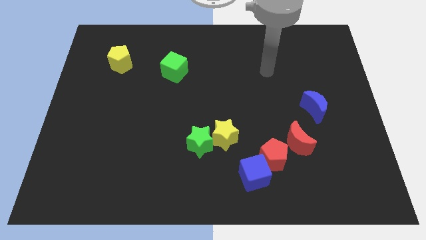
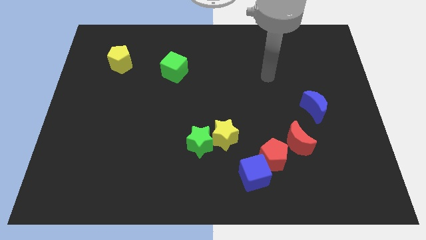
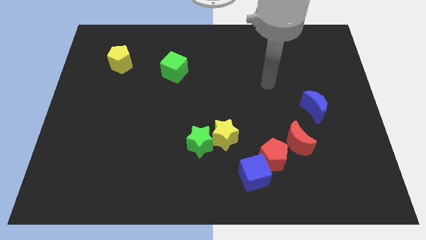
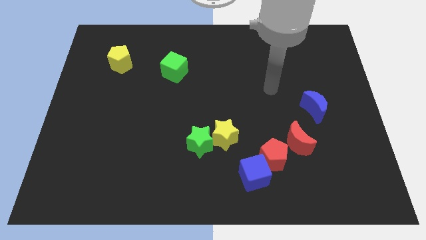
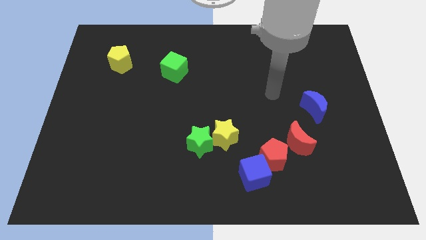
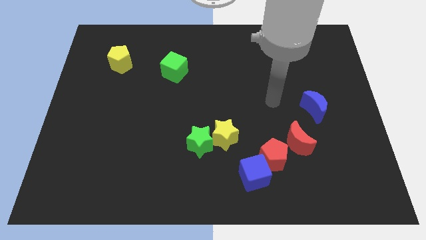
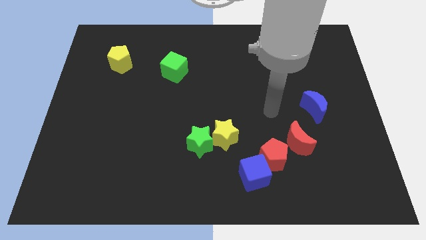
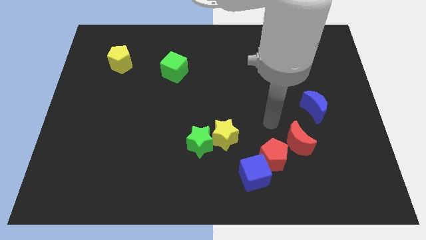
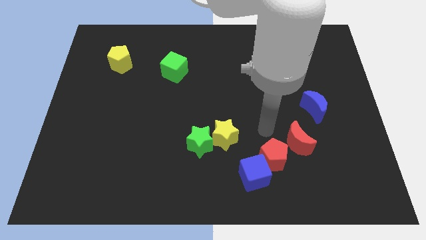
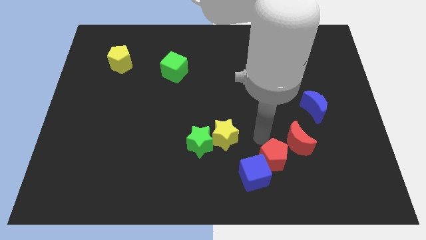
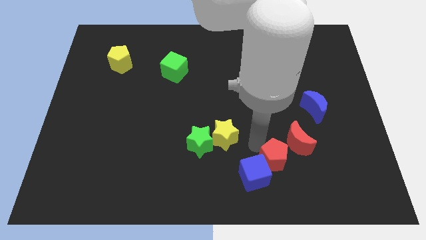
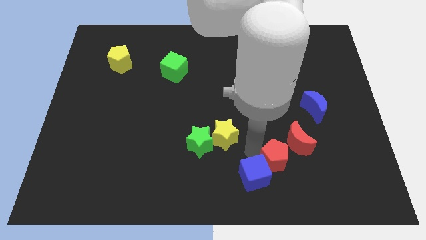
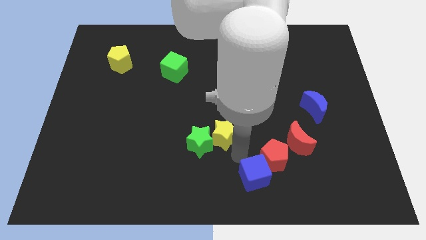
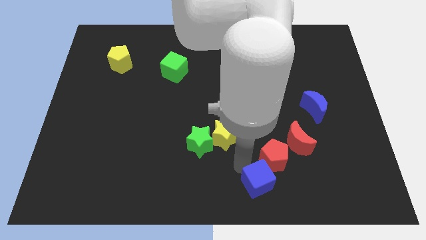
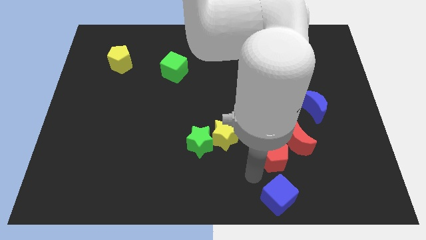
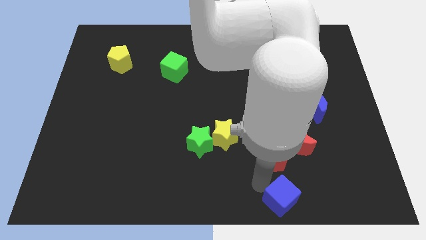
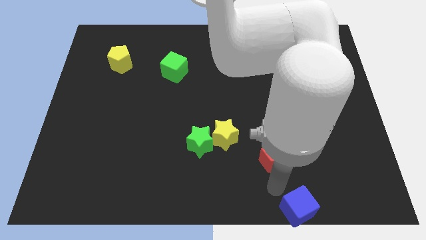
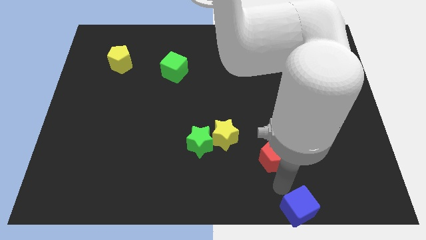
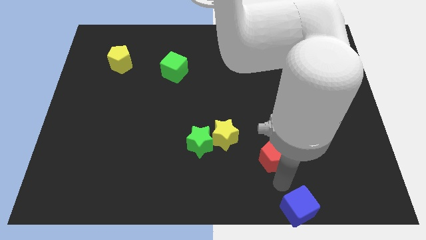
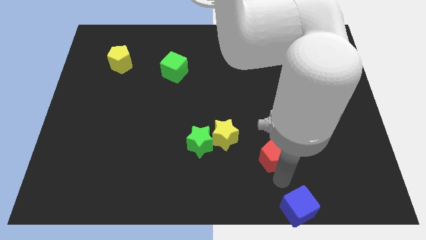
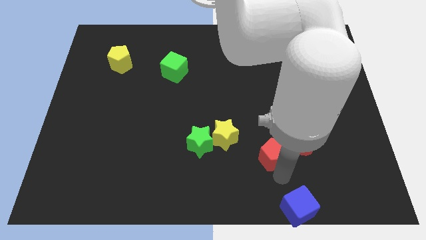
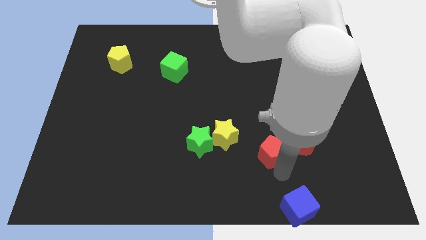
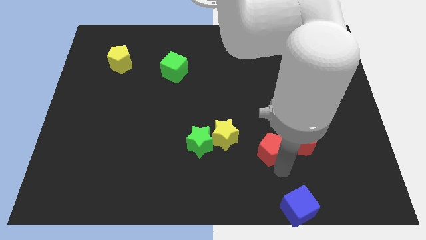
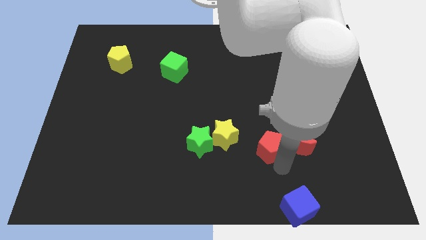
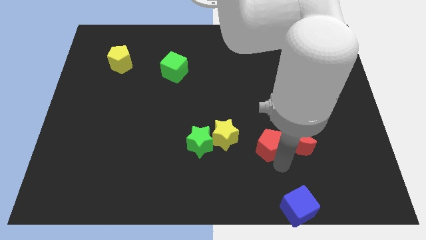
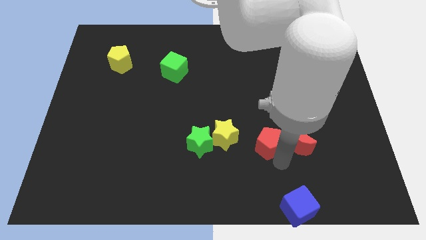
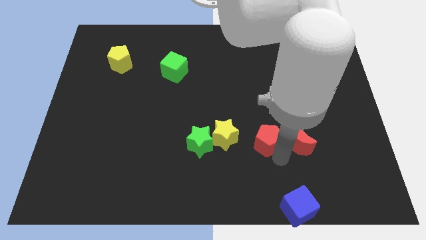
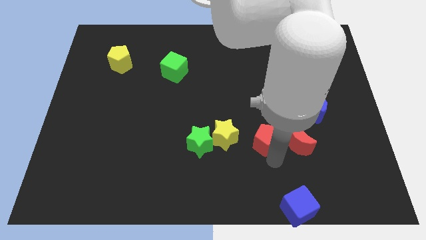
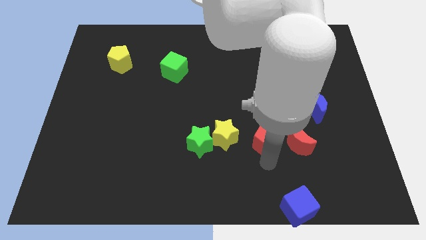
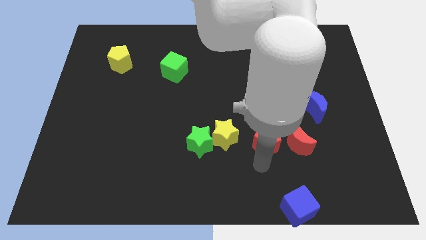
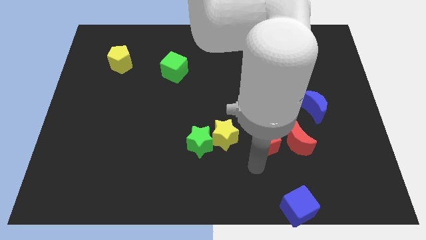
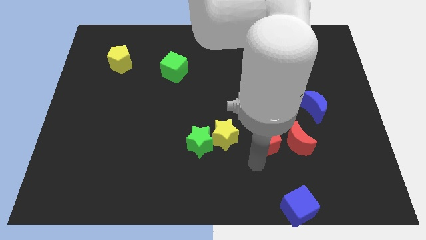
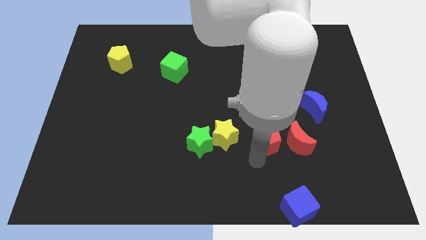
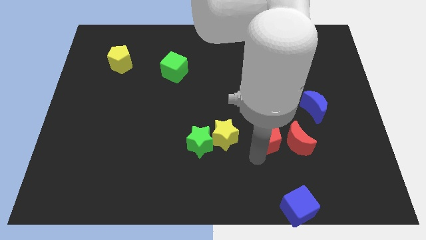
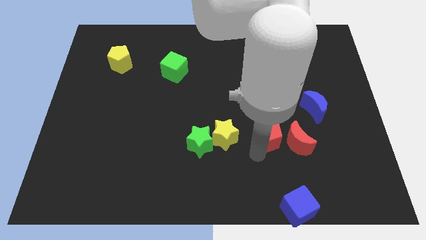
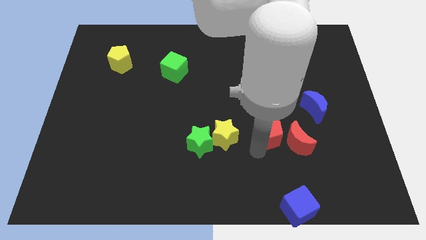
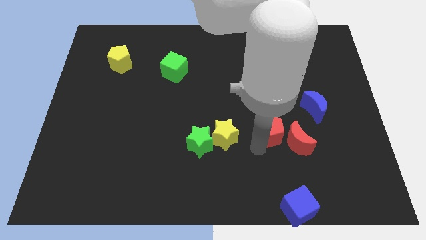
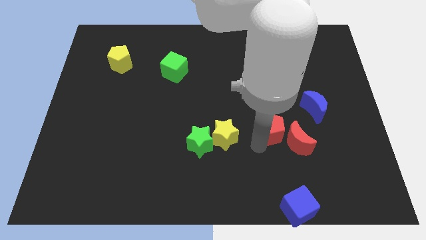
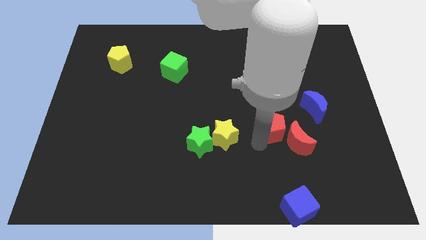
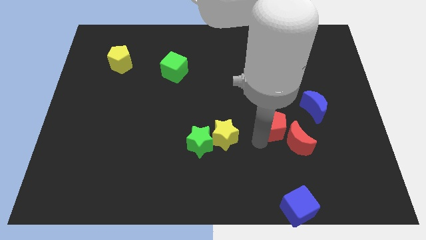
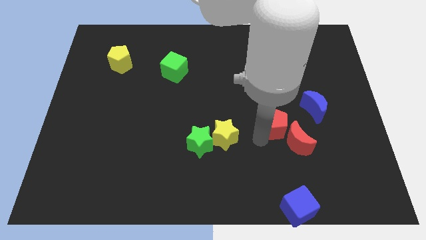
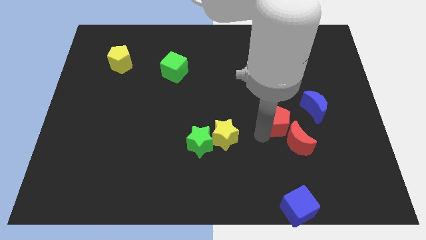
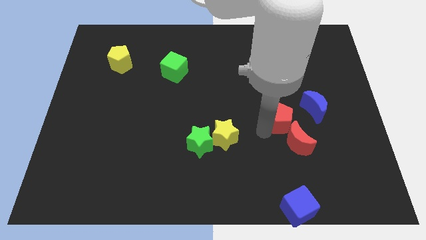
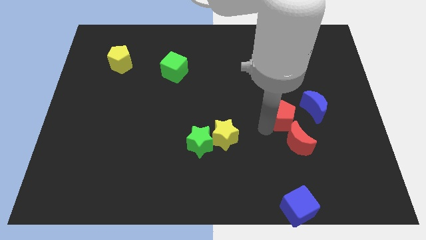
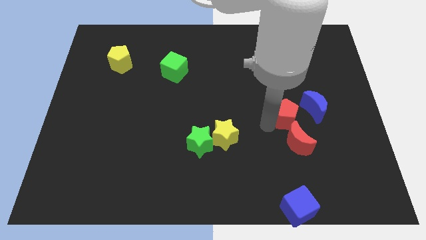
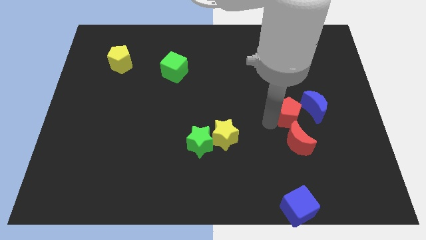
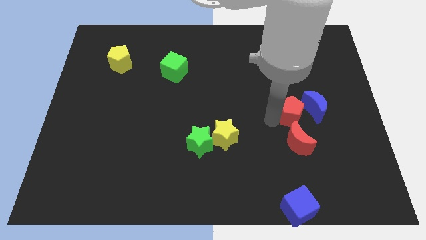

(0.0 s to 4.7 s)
slide the red pentagon towards the blue moon

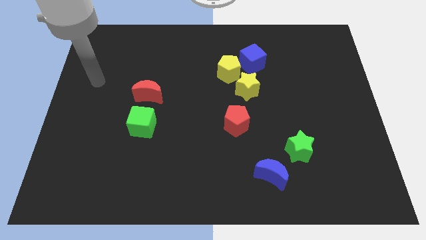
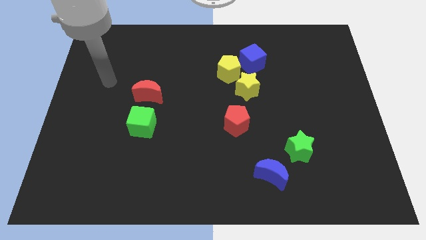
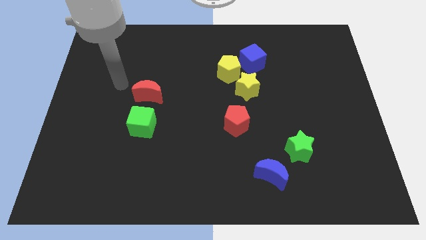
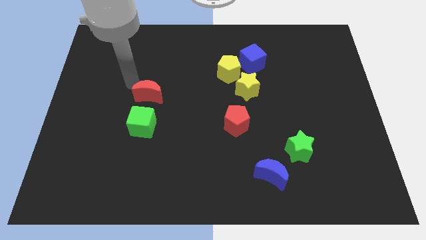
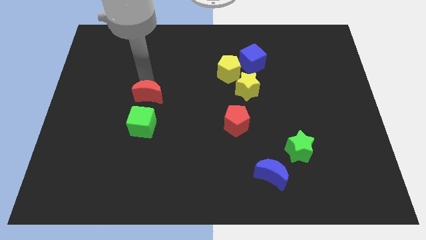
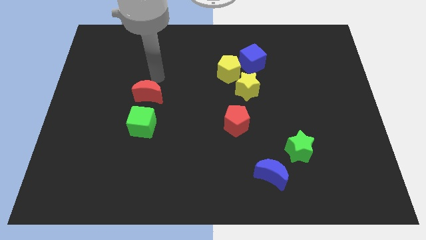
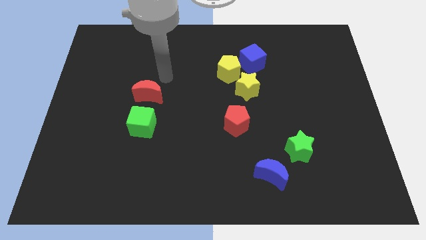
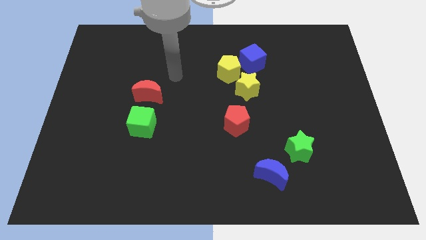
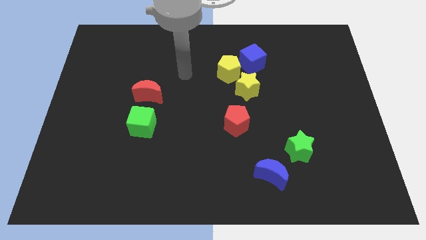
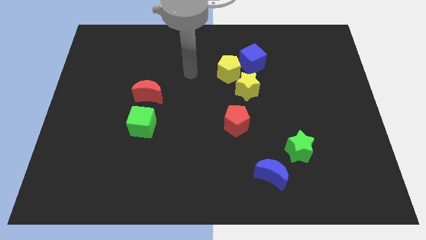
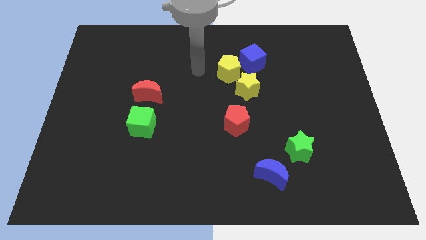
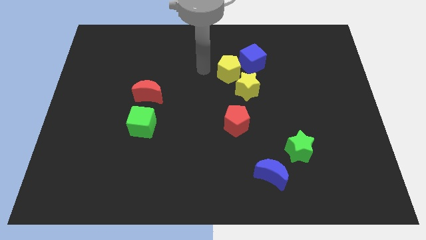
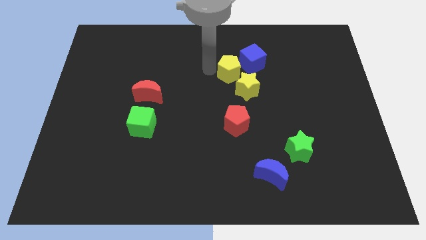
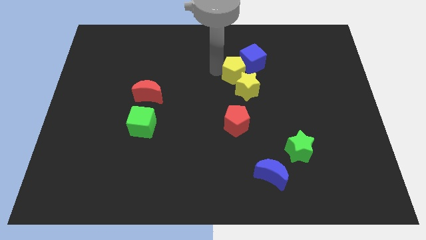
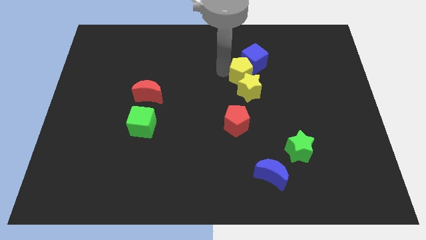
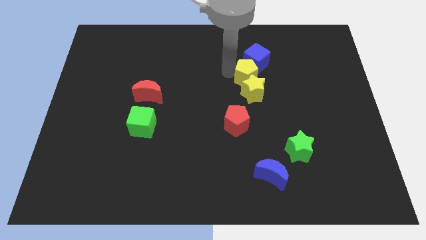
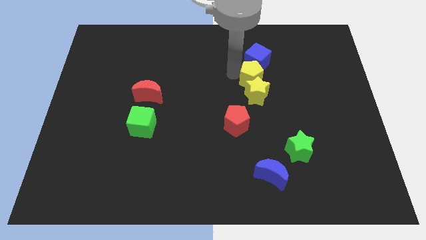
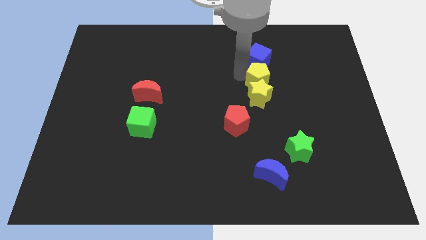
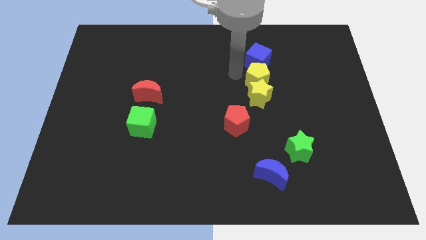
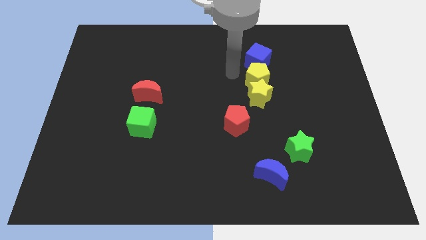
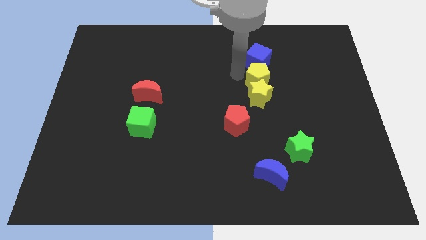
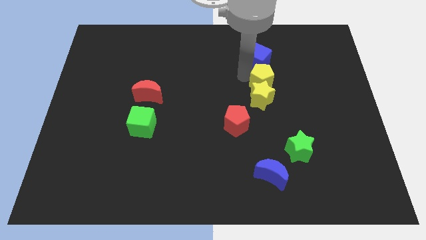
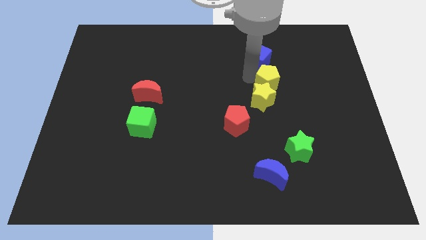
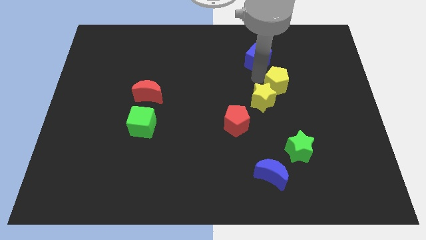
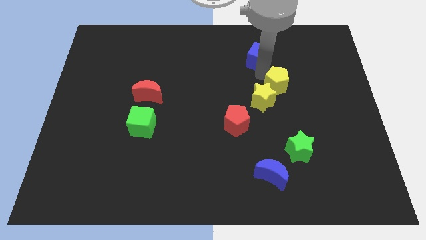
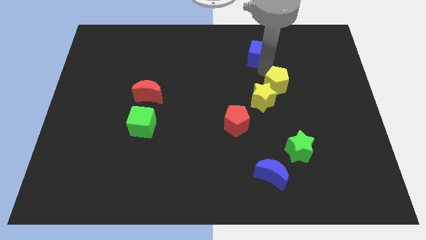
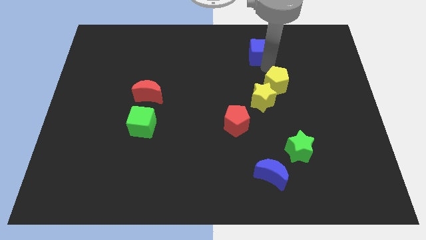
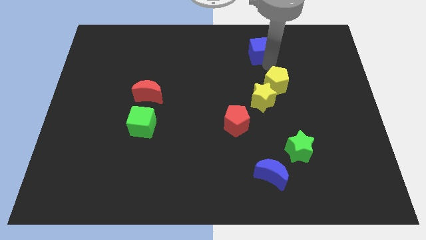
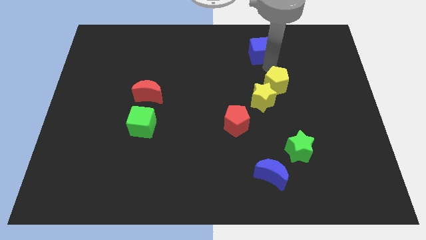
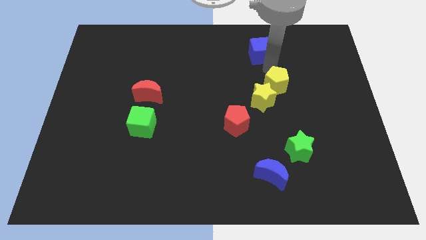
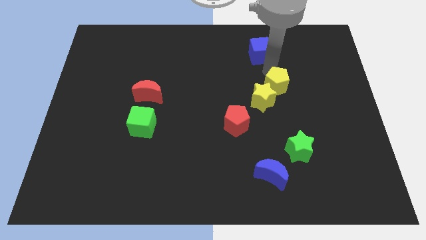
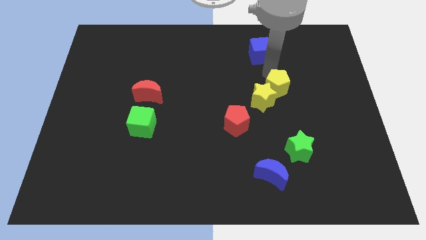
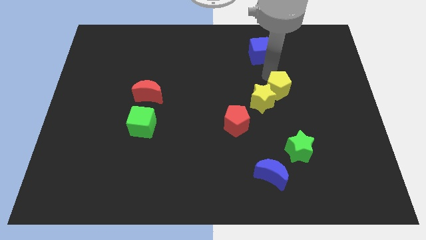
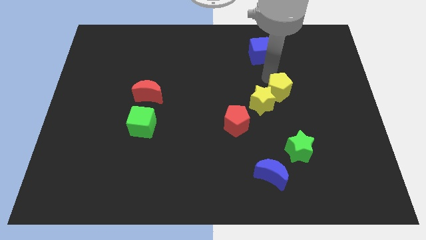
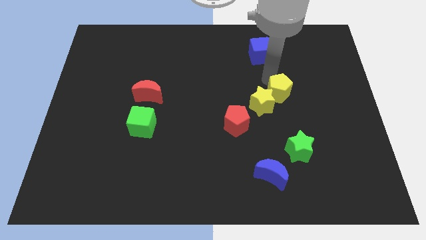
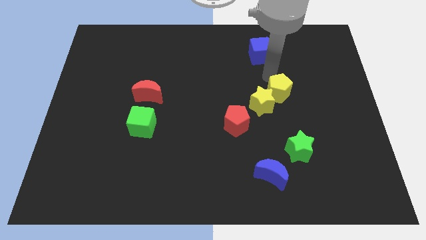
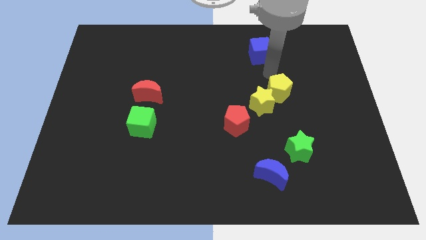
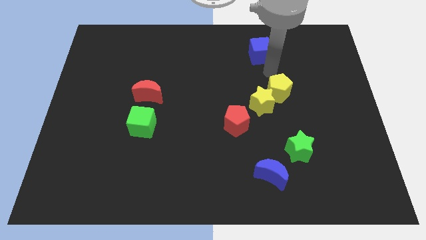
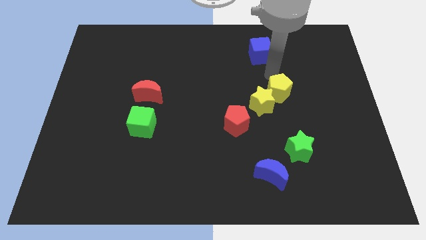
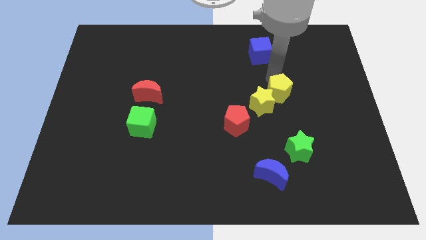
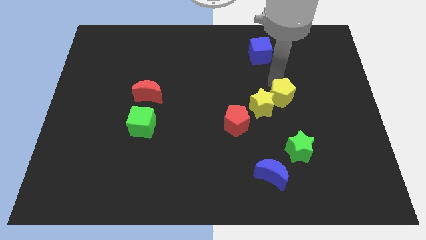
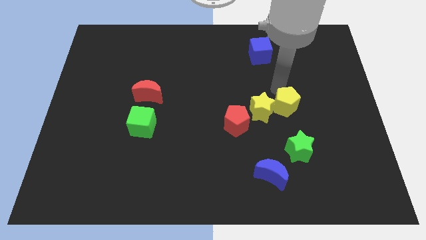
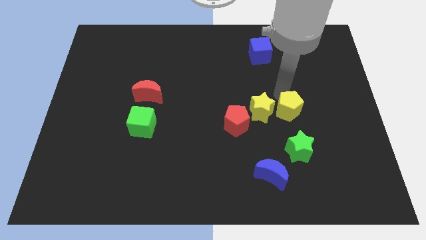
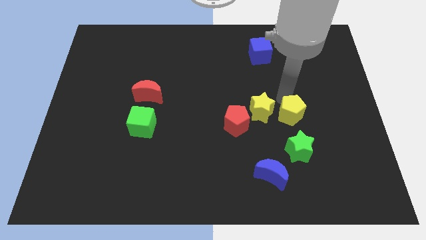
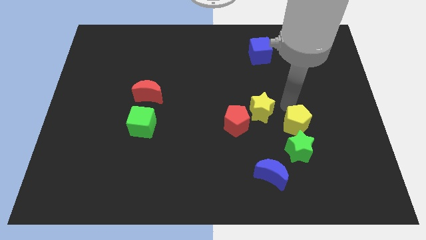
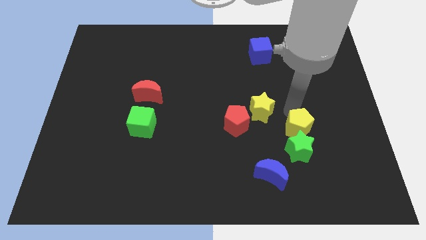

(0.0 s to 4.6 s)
put the yellow pentagon next to the green star
